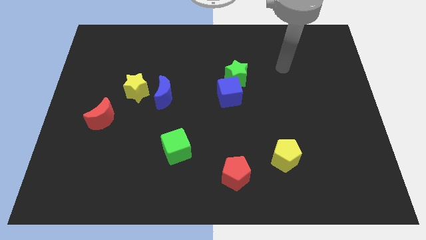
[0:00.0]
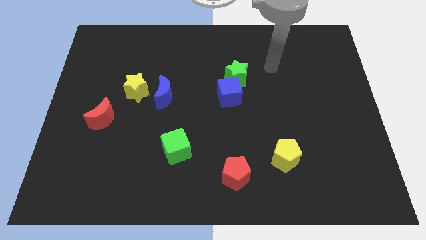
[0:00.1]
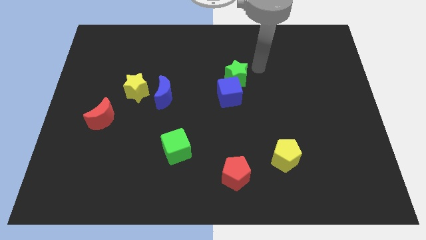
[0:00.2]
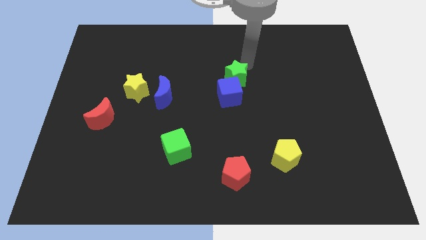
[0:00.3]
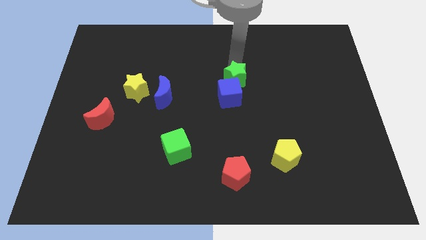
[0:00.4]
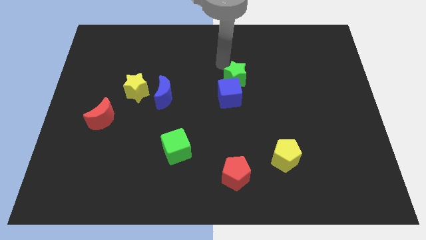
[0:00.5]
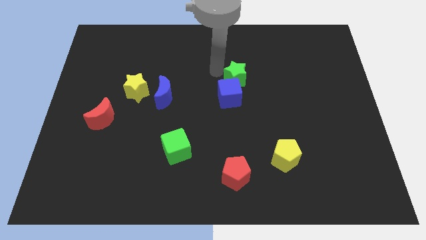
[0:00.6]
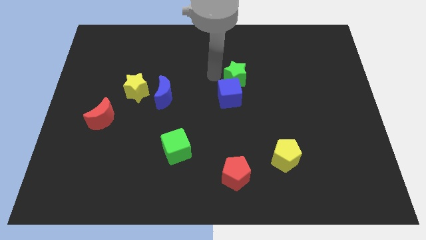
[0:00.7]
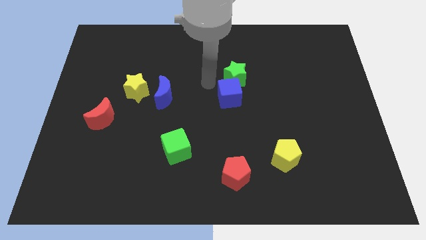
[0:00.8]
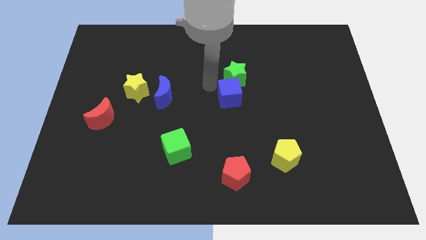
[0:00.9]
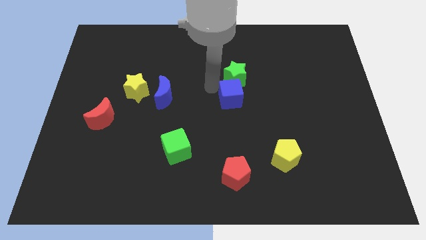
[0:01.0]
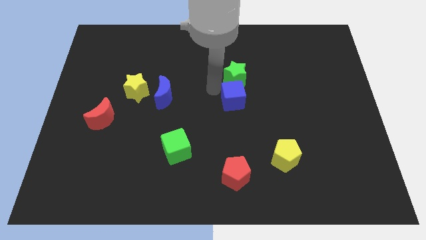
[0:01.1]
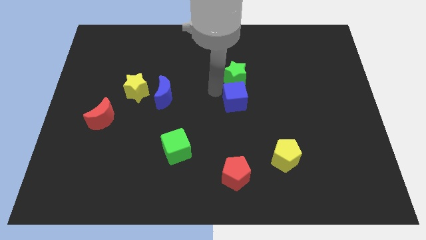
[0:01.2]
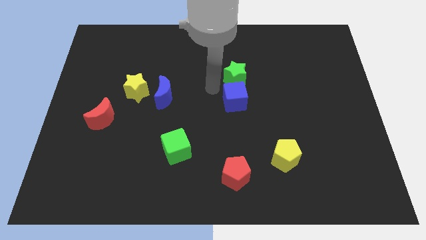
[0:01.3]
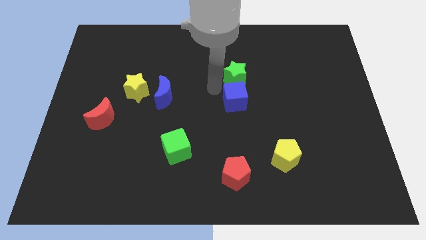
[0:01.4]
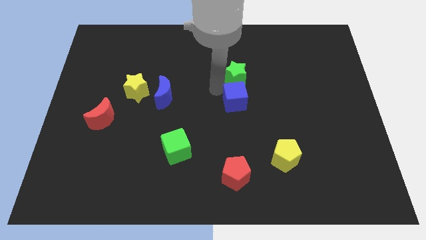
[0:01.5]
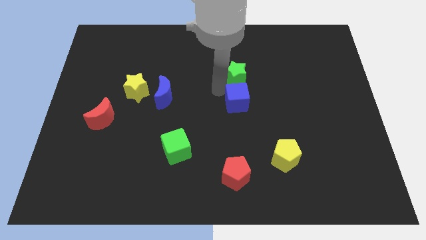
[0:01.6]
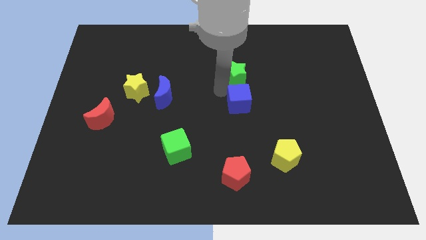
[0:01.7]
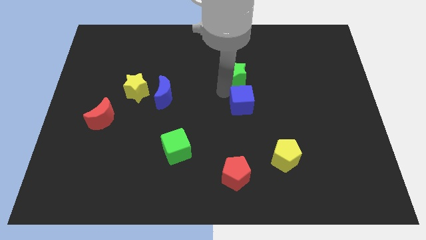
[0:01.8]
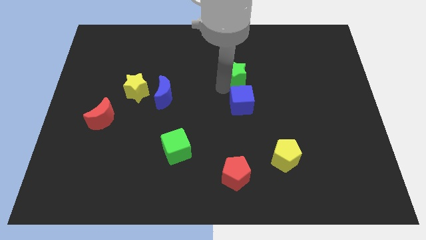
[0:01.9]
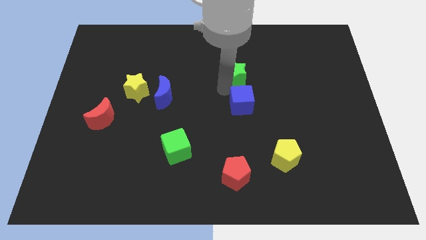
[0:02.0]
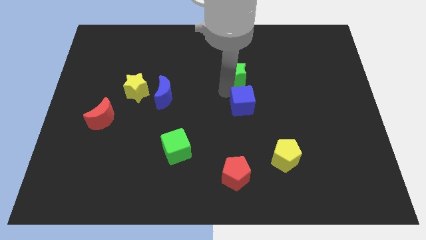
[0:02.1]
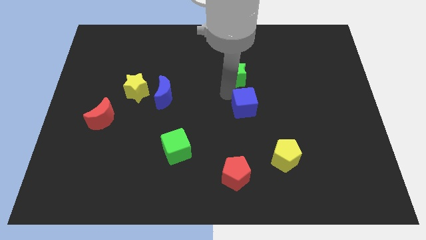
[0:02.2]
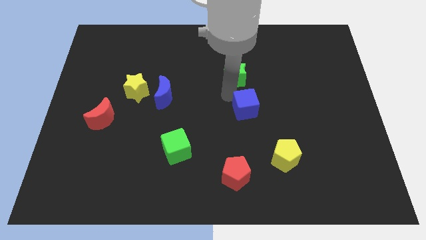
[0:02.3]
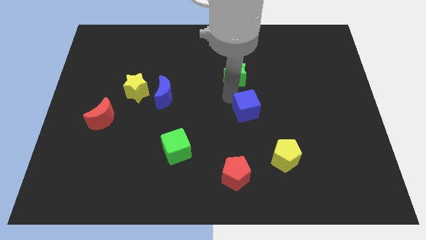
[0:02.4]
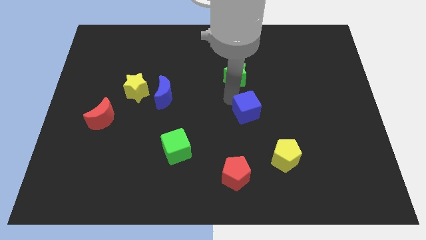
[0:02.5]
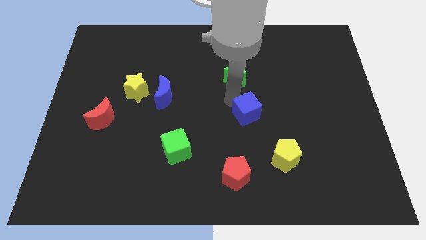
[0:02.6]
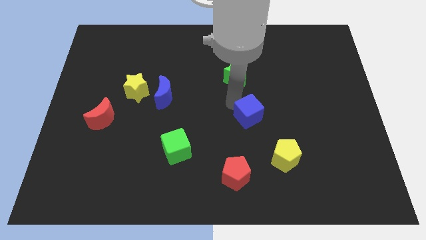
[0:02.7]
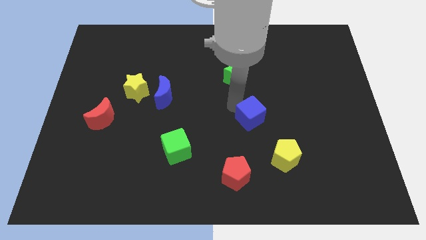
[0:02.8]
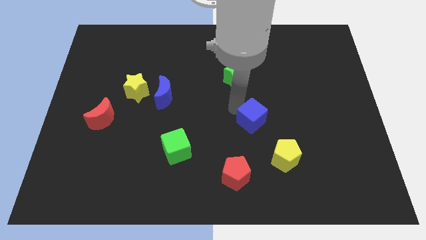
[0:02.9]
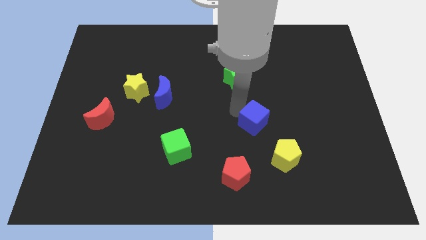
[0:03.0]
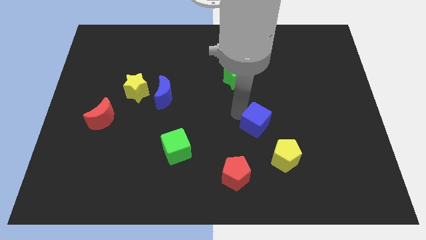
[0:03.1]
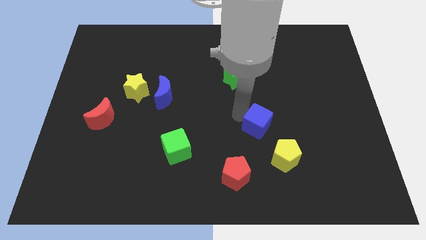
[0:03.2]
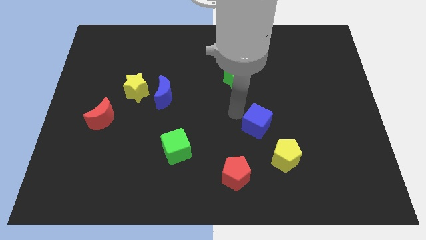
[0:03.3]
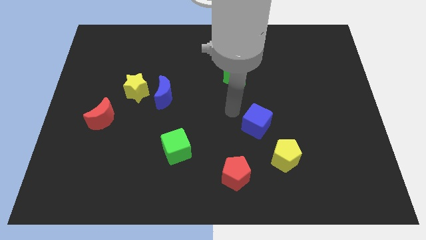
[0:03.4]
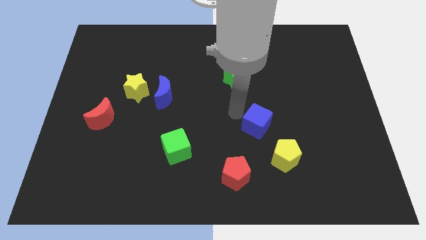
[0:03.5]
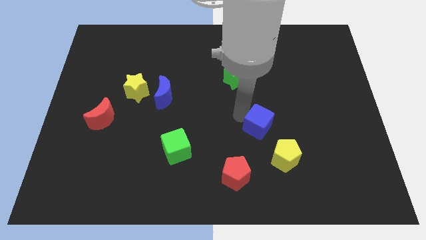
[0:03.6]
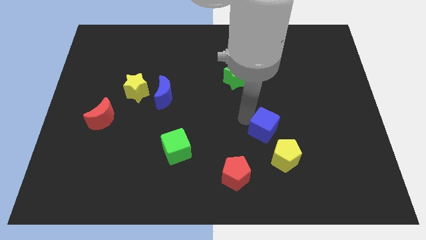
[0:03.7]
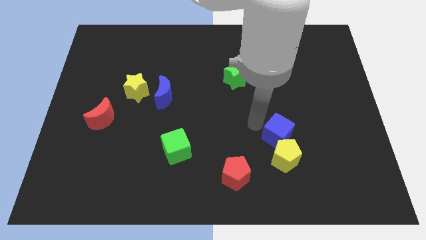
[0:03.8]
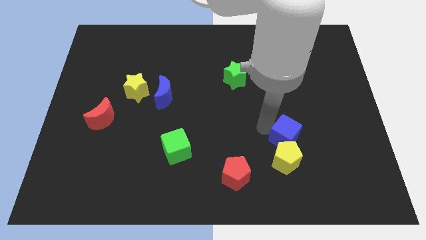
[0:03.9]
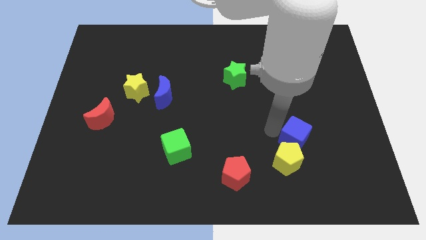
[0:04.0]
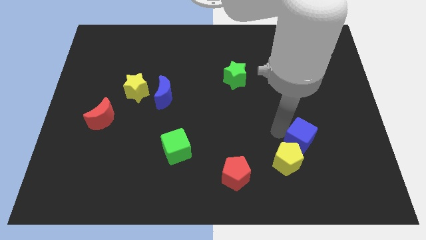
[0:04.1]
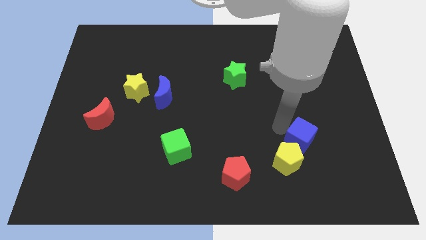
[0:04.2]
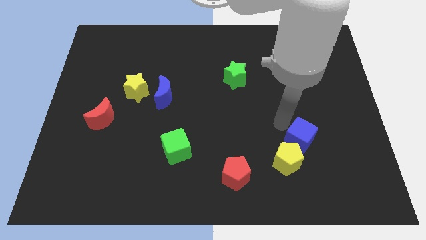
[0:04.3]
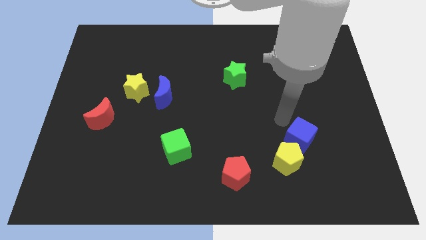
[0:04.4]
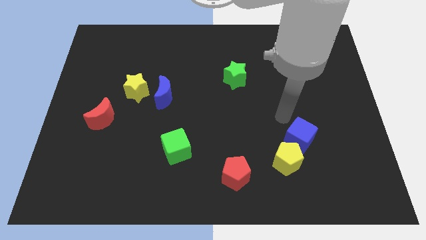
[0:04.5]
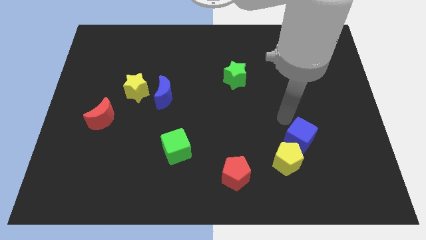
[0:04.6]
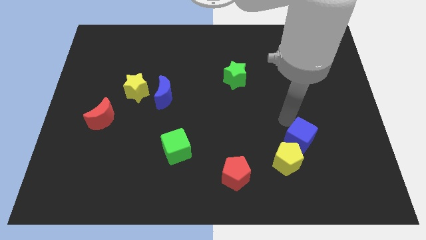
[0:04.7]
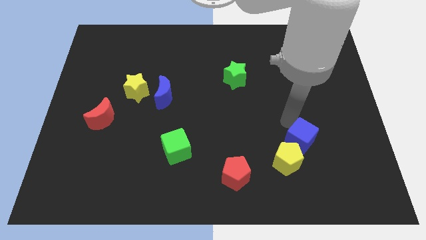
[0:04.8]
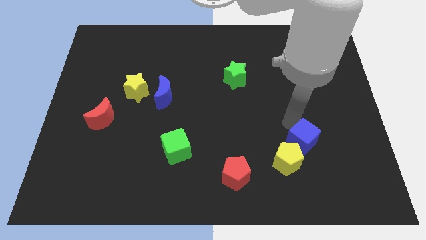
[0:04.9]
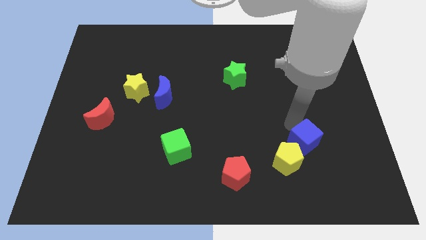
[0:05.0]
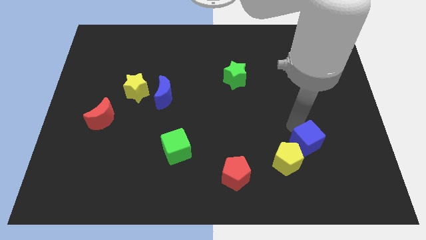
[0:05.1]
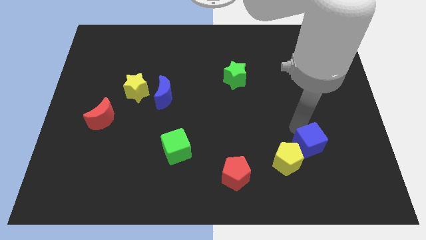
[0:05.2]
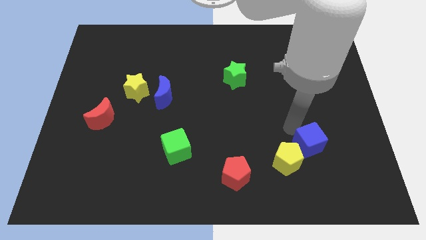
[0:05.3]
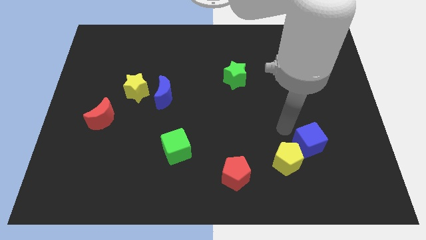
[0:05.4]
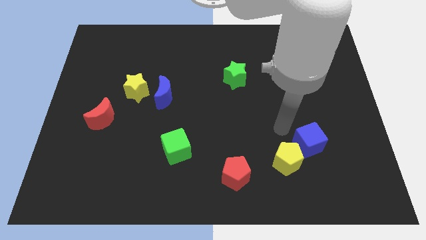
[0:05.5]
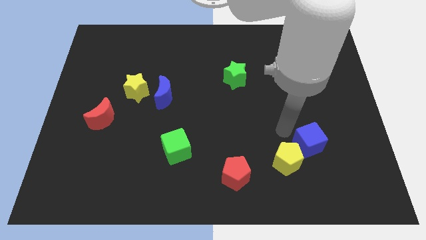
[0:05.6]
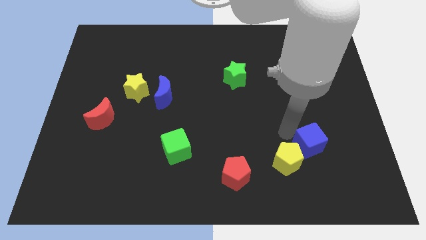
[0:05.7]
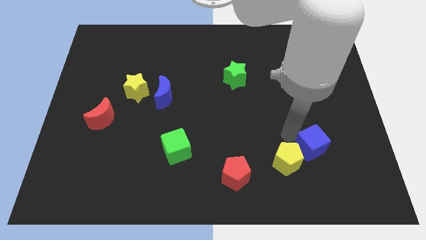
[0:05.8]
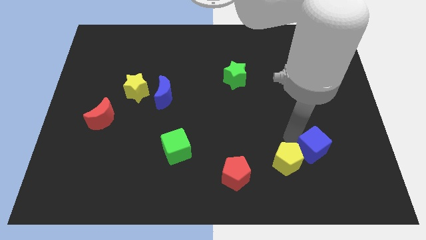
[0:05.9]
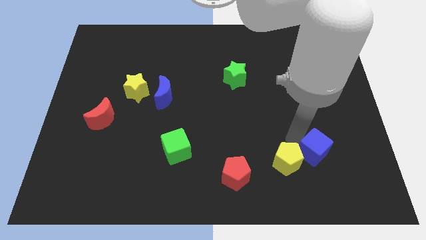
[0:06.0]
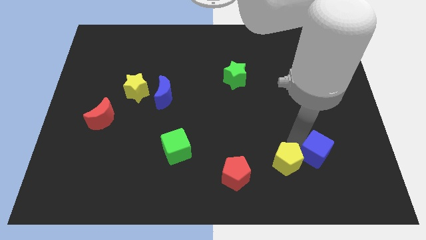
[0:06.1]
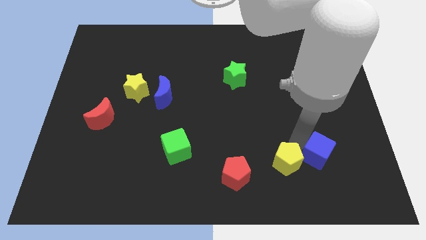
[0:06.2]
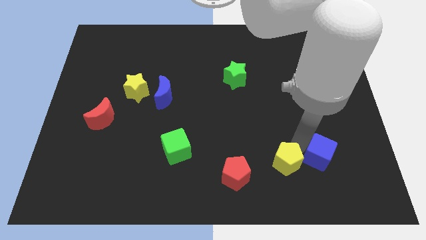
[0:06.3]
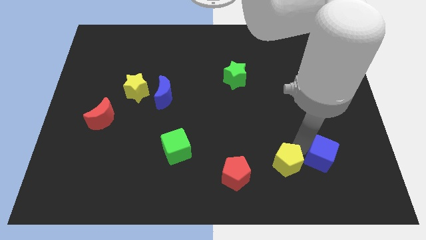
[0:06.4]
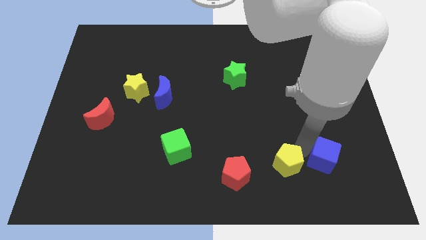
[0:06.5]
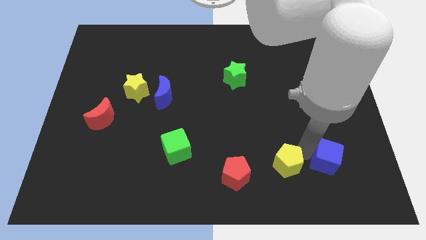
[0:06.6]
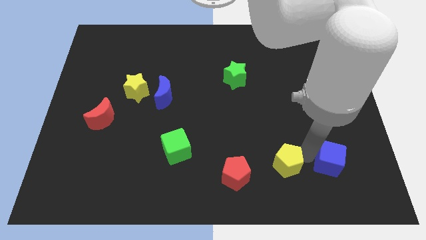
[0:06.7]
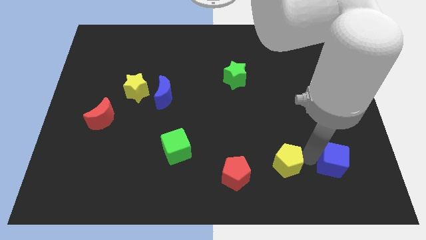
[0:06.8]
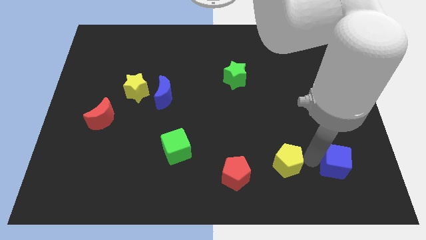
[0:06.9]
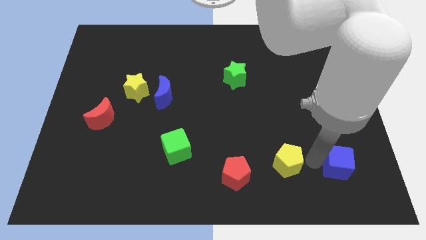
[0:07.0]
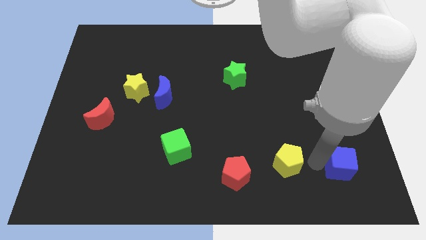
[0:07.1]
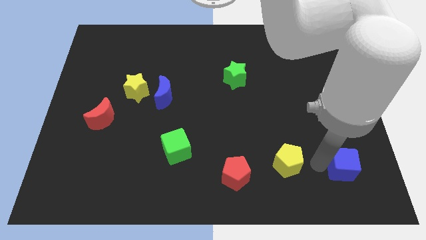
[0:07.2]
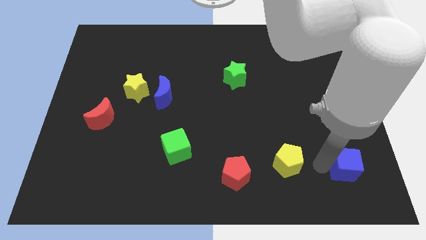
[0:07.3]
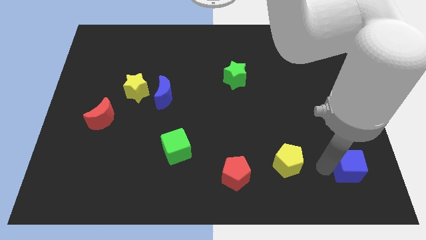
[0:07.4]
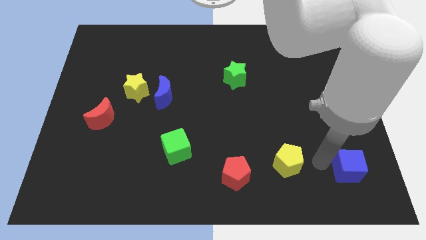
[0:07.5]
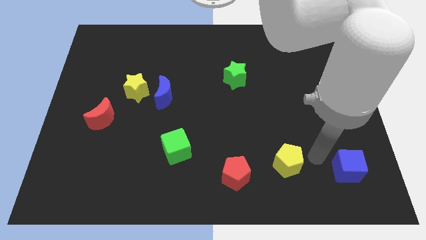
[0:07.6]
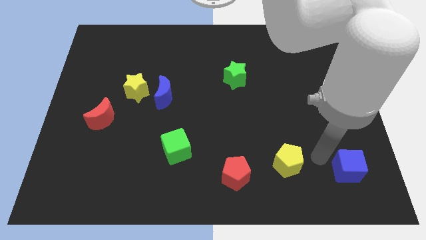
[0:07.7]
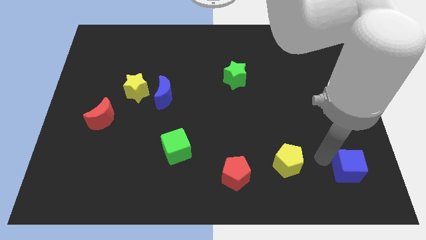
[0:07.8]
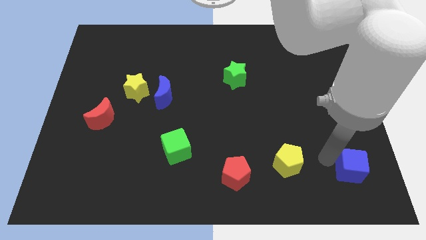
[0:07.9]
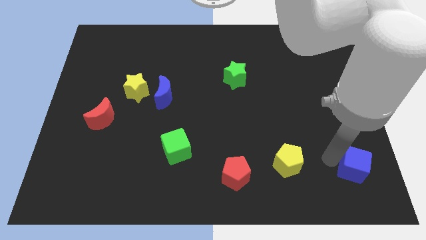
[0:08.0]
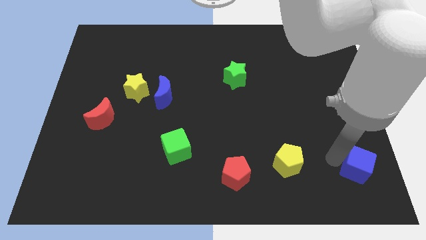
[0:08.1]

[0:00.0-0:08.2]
move the blue cube to the bottom right
